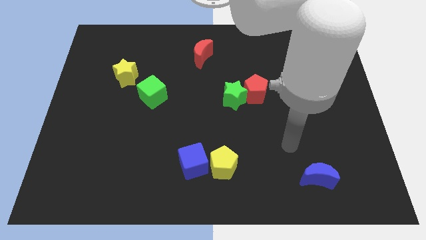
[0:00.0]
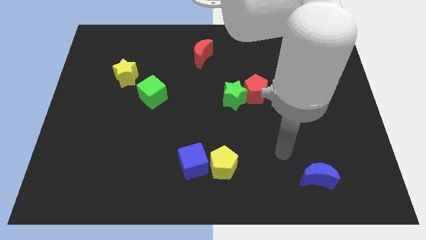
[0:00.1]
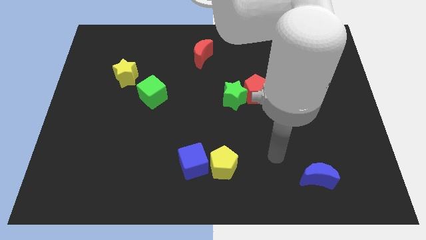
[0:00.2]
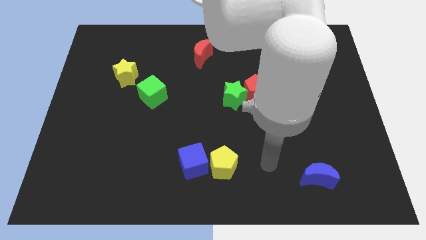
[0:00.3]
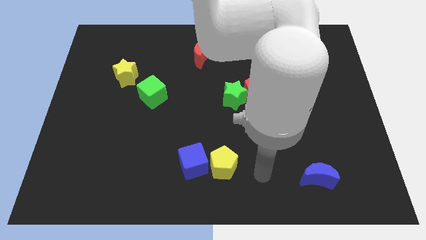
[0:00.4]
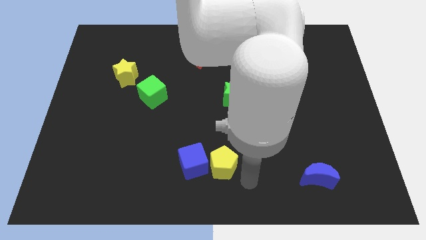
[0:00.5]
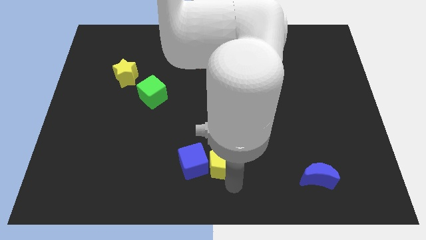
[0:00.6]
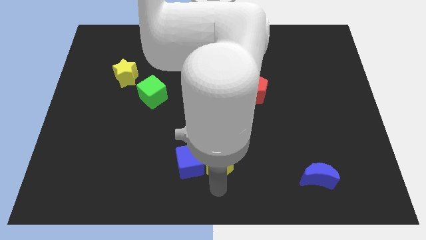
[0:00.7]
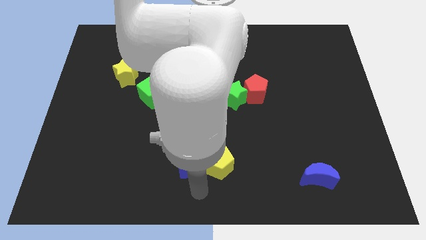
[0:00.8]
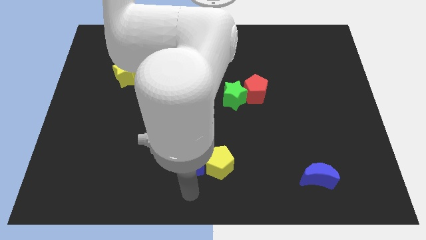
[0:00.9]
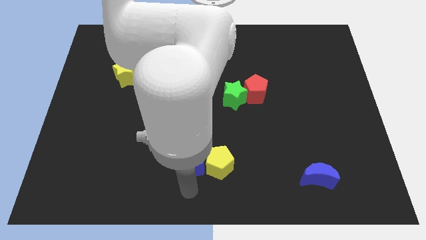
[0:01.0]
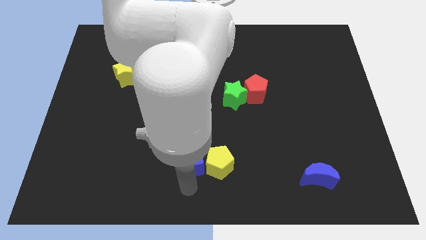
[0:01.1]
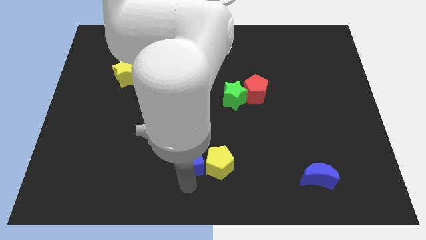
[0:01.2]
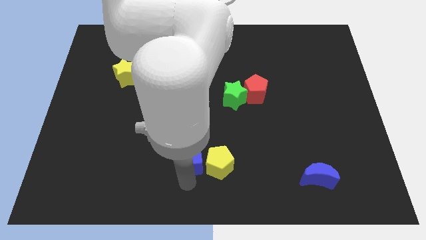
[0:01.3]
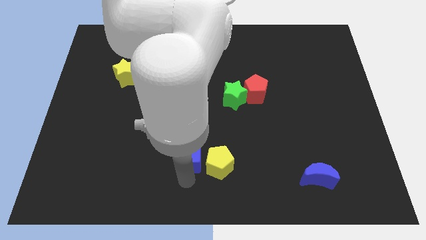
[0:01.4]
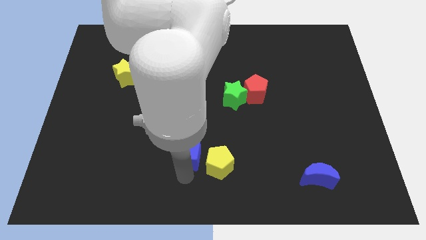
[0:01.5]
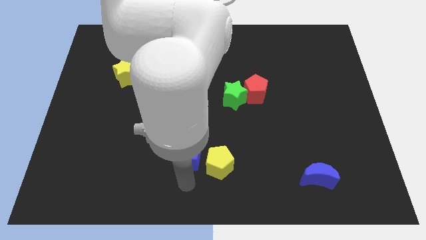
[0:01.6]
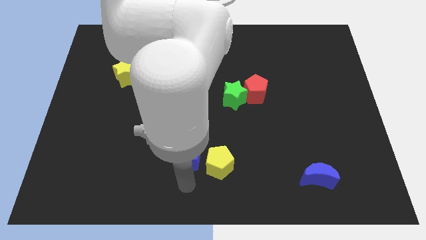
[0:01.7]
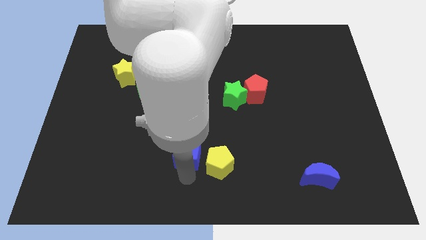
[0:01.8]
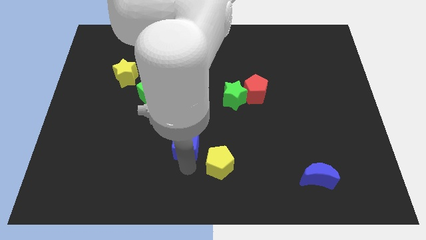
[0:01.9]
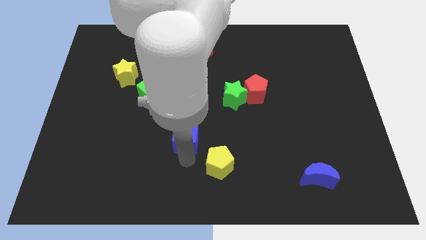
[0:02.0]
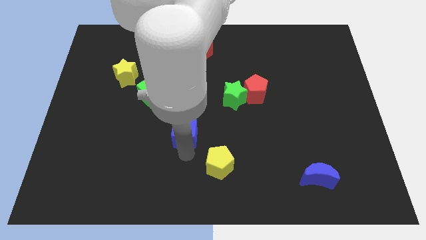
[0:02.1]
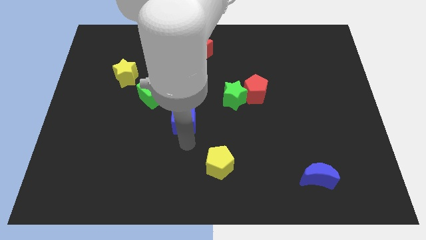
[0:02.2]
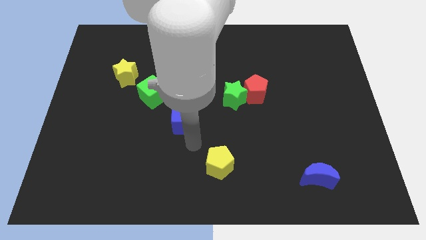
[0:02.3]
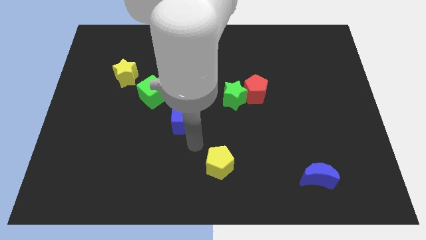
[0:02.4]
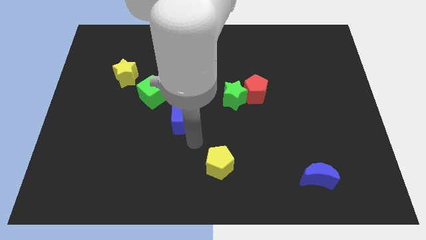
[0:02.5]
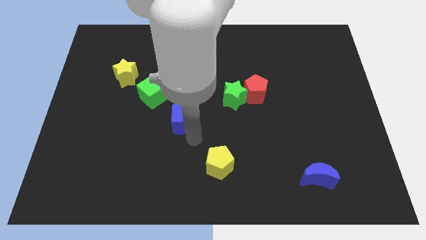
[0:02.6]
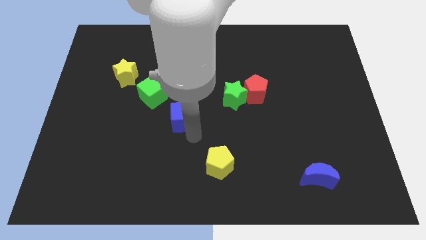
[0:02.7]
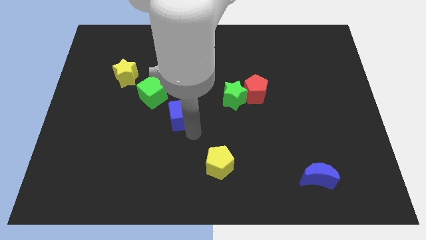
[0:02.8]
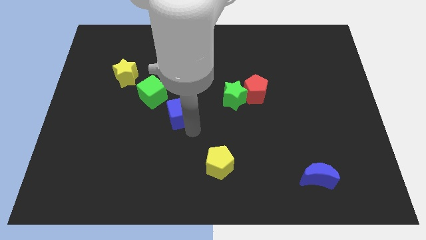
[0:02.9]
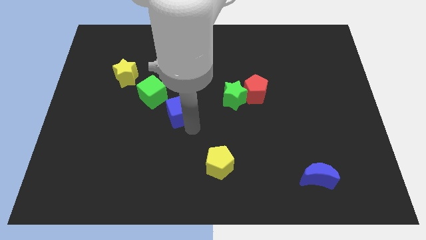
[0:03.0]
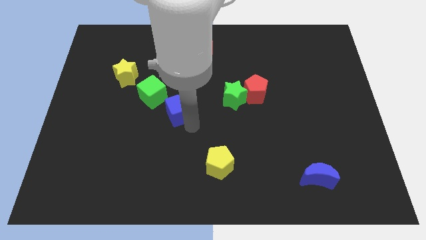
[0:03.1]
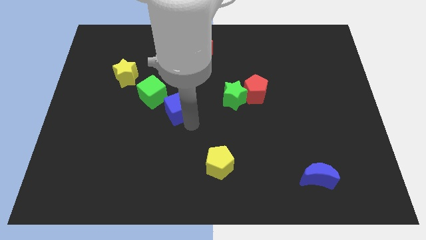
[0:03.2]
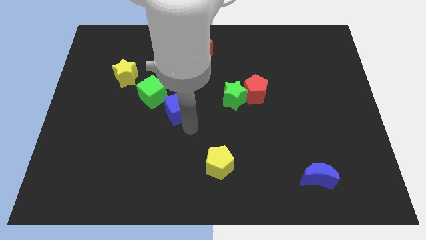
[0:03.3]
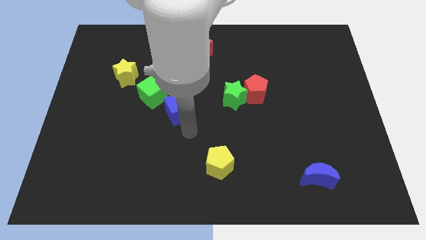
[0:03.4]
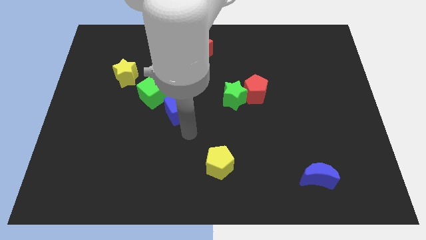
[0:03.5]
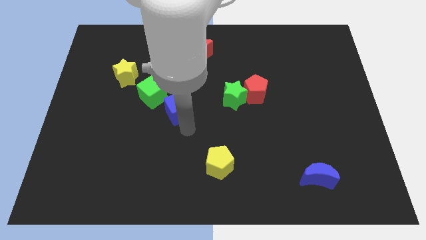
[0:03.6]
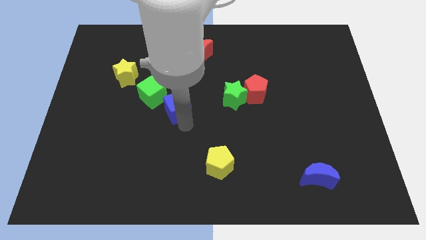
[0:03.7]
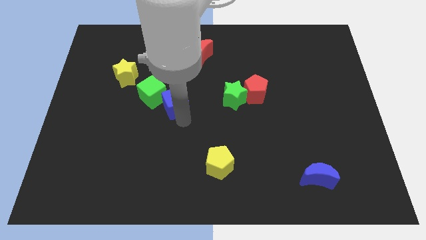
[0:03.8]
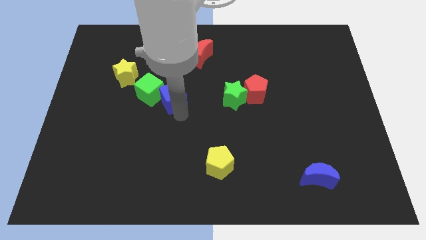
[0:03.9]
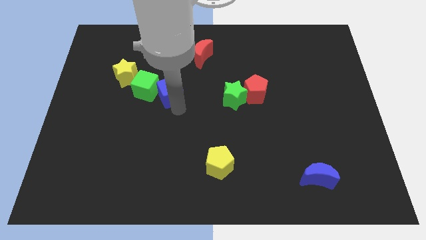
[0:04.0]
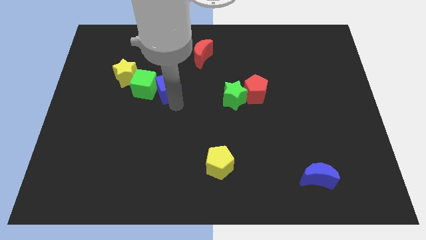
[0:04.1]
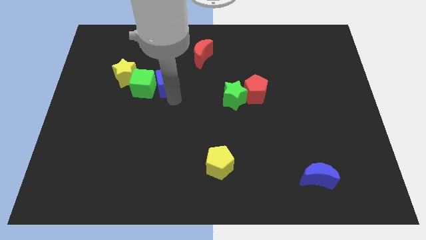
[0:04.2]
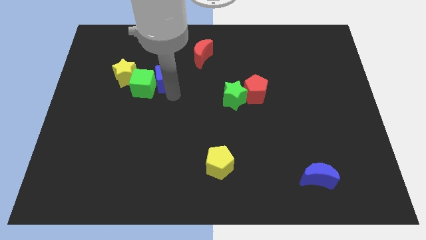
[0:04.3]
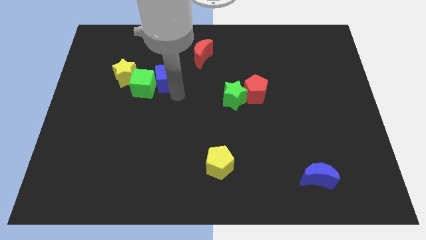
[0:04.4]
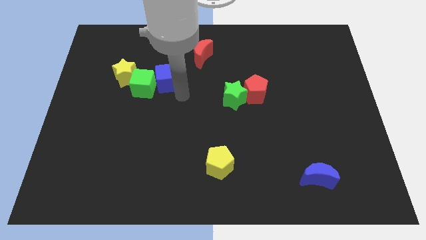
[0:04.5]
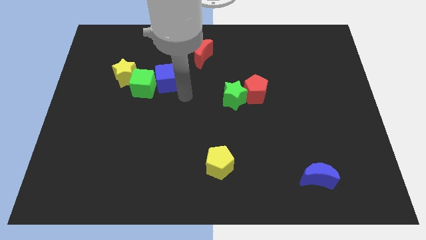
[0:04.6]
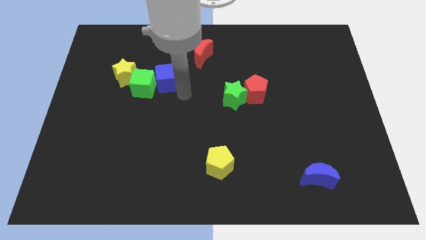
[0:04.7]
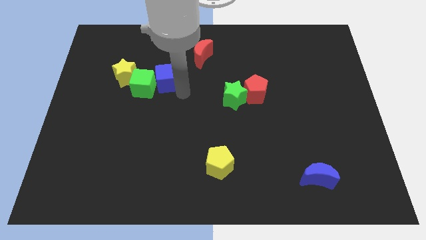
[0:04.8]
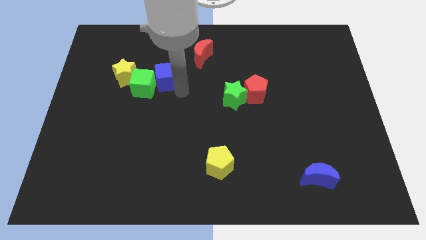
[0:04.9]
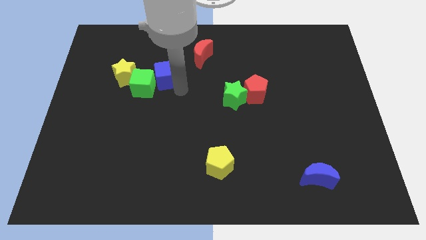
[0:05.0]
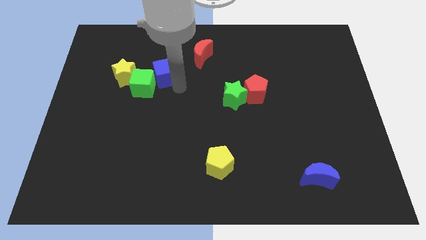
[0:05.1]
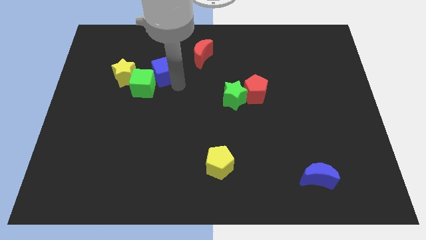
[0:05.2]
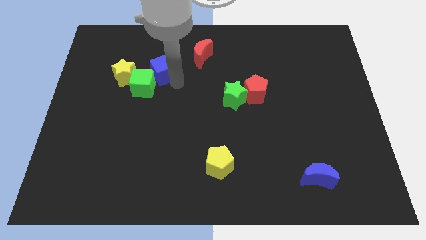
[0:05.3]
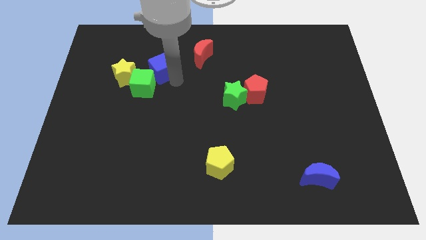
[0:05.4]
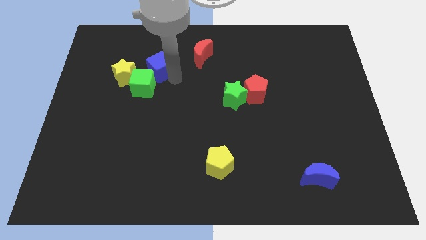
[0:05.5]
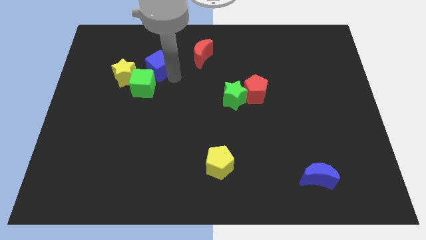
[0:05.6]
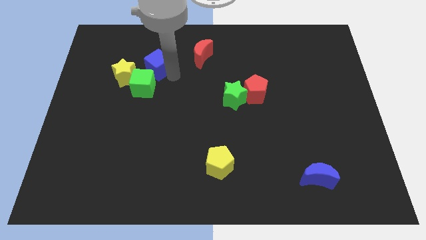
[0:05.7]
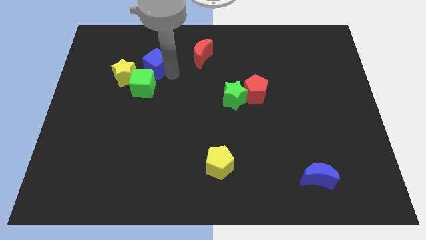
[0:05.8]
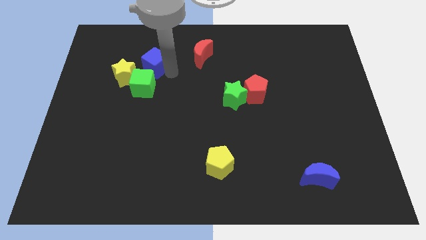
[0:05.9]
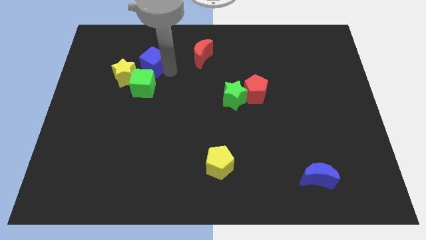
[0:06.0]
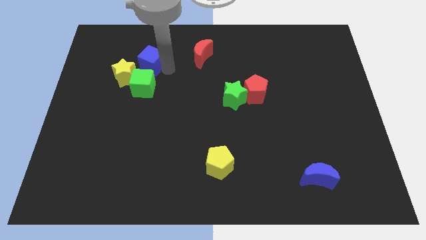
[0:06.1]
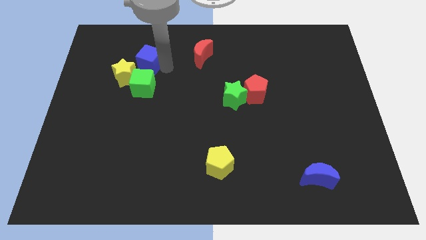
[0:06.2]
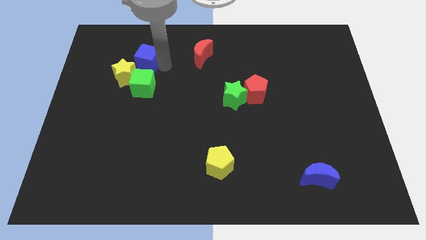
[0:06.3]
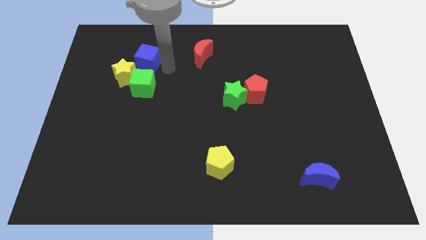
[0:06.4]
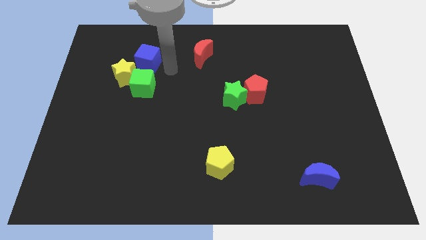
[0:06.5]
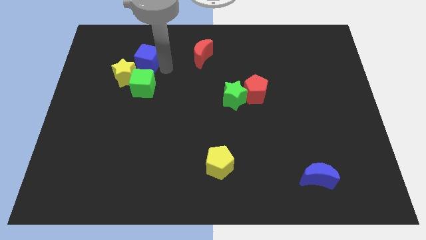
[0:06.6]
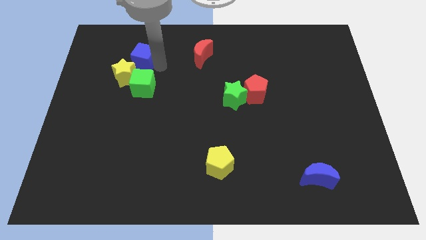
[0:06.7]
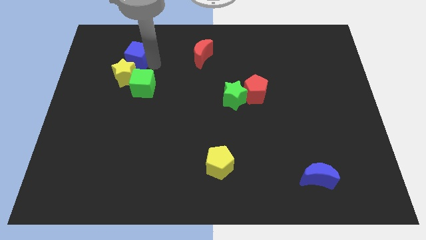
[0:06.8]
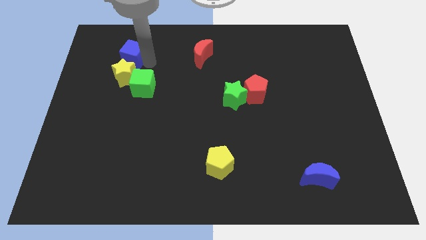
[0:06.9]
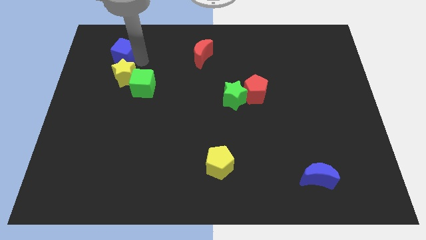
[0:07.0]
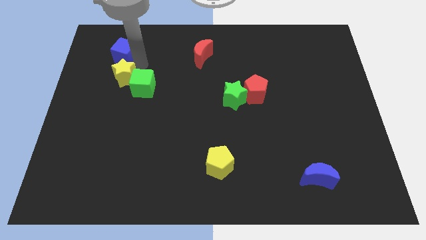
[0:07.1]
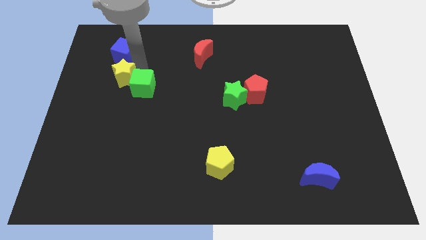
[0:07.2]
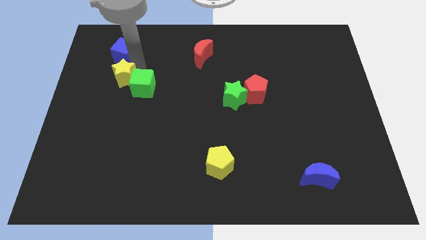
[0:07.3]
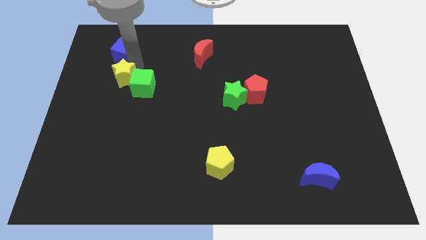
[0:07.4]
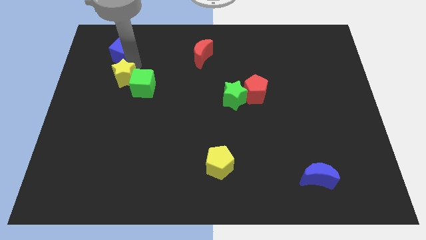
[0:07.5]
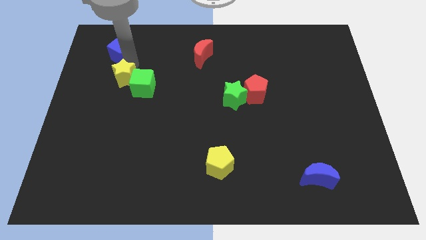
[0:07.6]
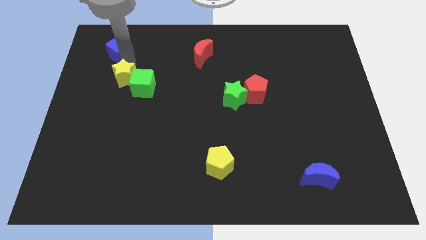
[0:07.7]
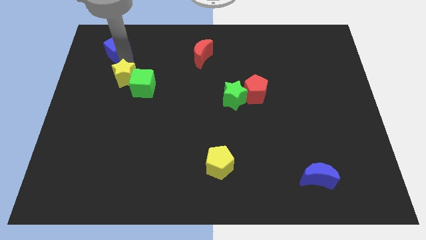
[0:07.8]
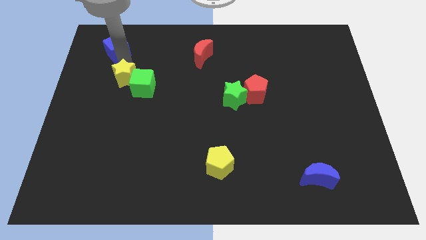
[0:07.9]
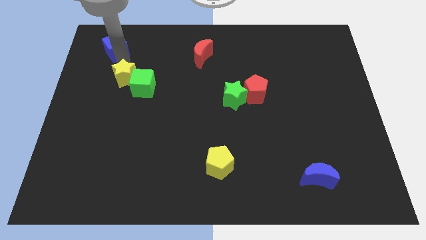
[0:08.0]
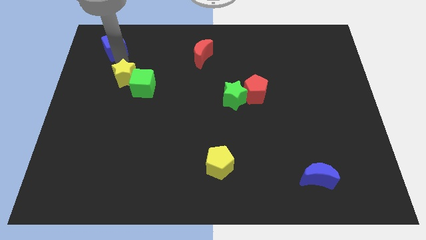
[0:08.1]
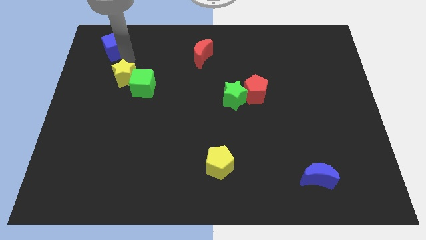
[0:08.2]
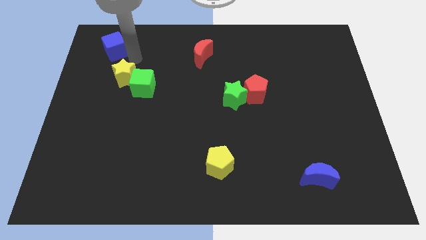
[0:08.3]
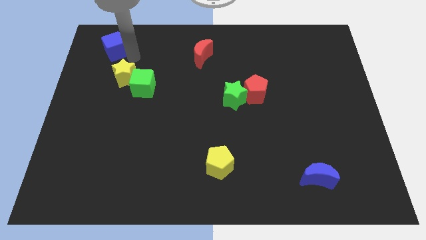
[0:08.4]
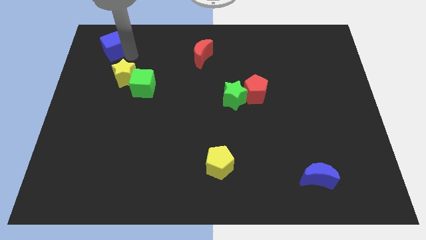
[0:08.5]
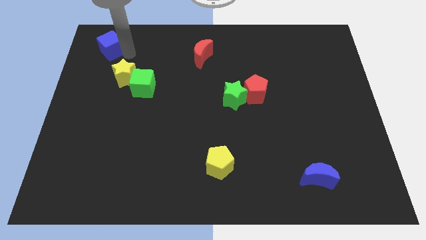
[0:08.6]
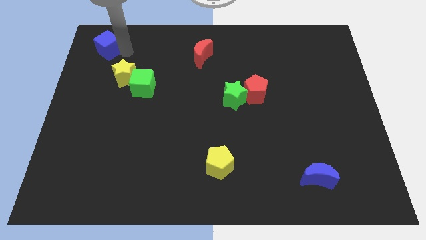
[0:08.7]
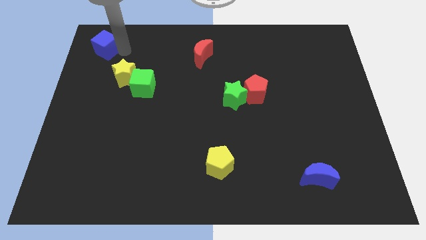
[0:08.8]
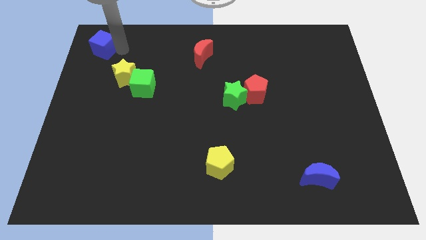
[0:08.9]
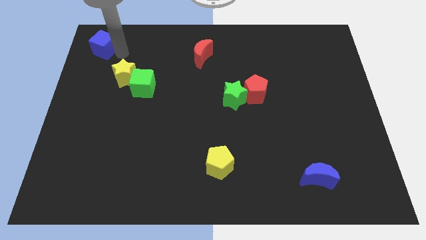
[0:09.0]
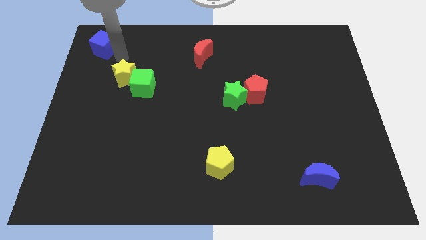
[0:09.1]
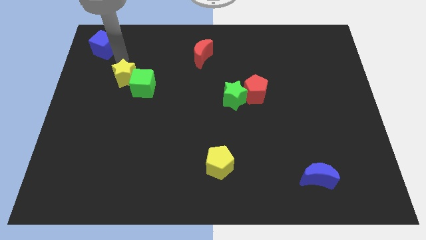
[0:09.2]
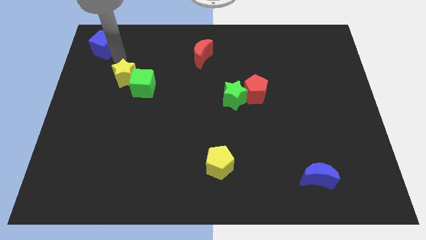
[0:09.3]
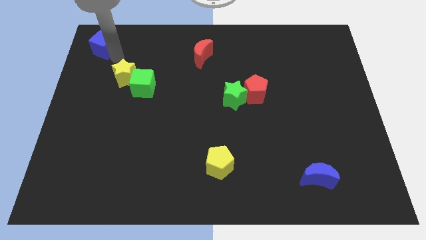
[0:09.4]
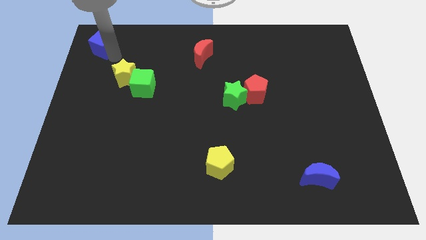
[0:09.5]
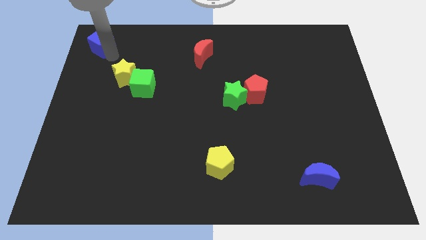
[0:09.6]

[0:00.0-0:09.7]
push the blue cube to the top left
